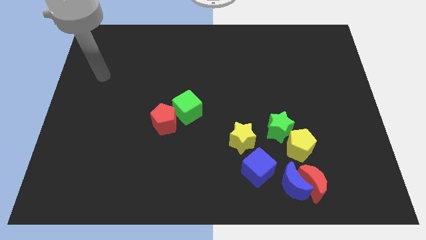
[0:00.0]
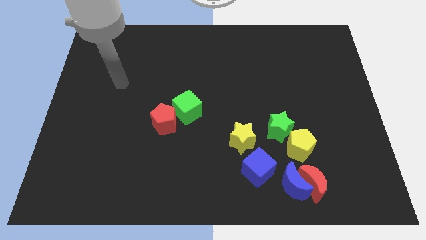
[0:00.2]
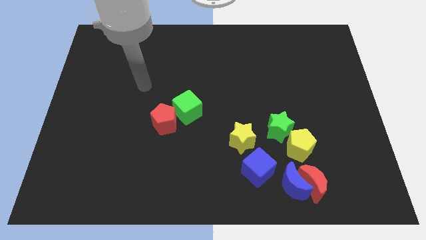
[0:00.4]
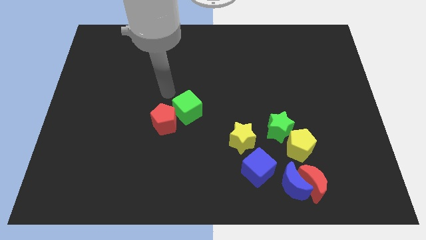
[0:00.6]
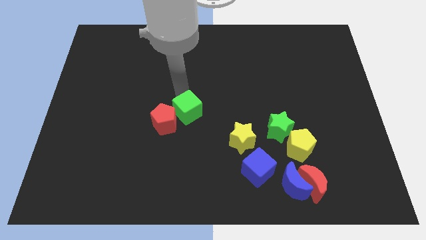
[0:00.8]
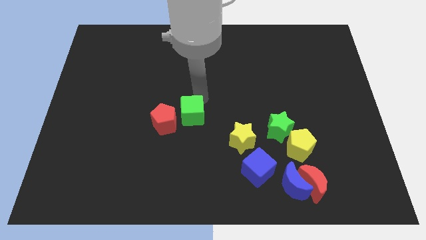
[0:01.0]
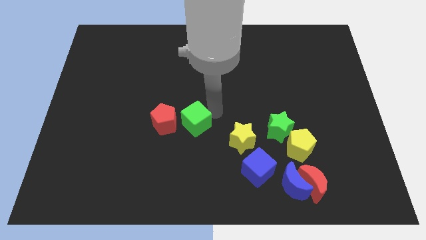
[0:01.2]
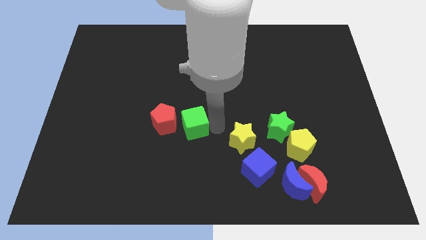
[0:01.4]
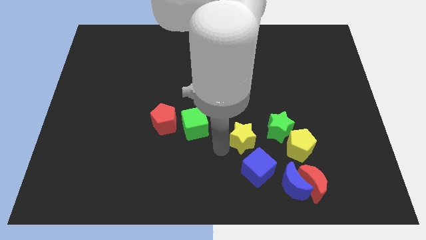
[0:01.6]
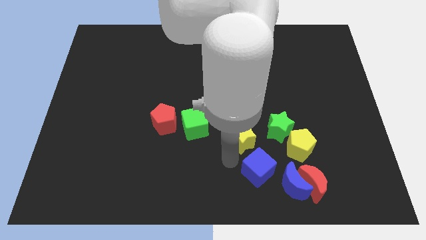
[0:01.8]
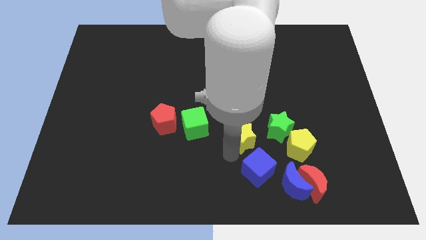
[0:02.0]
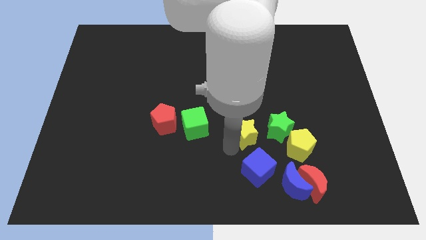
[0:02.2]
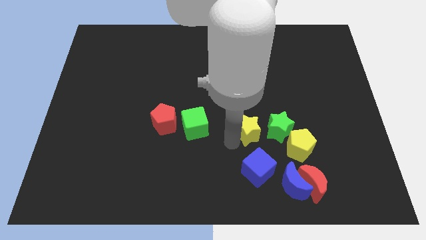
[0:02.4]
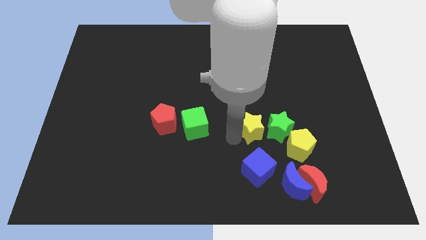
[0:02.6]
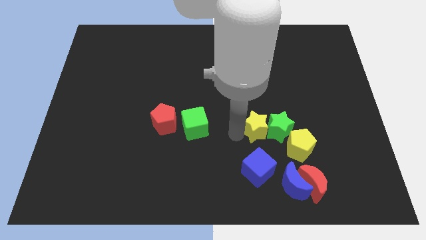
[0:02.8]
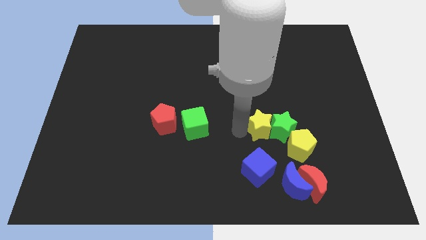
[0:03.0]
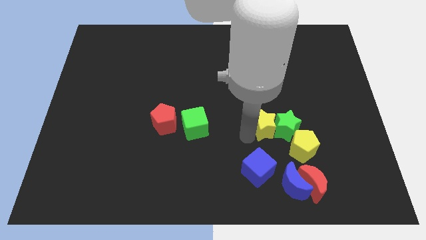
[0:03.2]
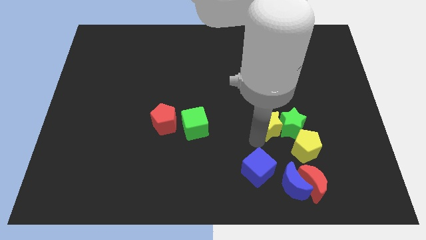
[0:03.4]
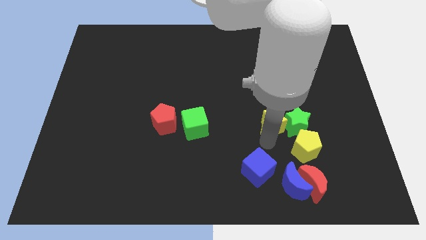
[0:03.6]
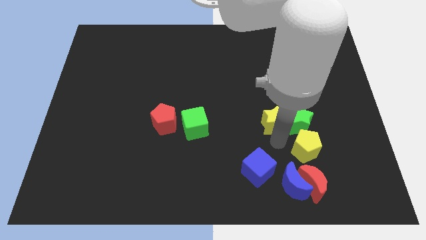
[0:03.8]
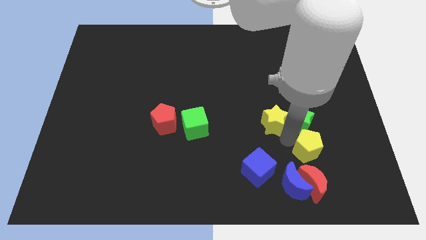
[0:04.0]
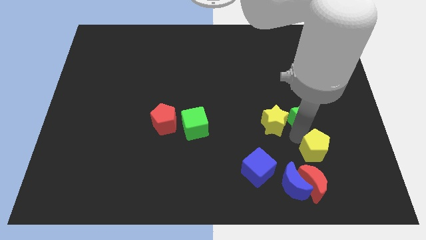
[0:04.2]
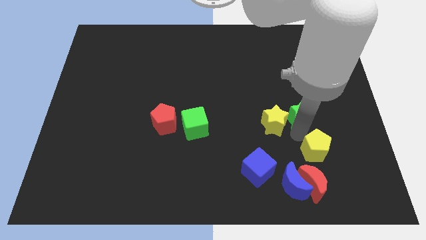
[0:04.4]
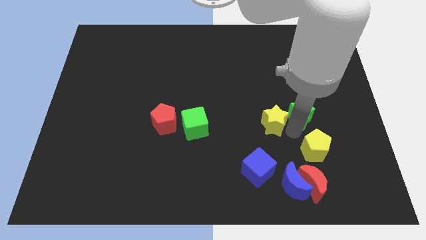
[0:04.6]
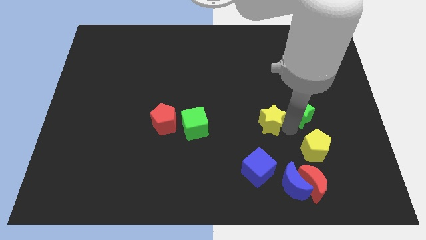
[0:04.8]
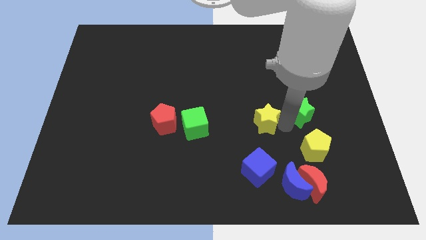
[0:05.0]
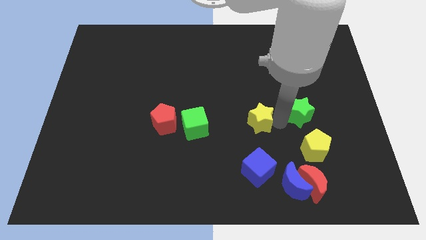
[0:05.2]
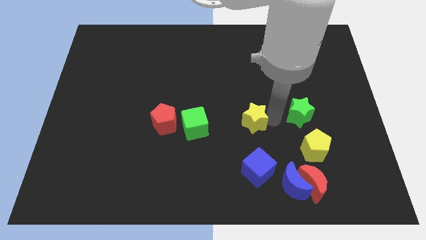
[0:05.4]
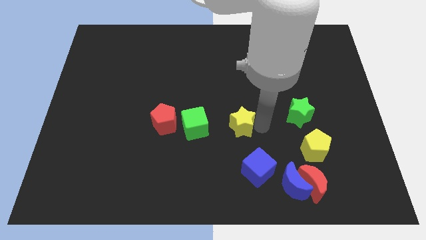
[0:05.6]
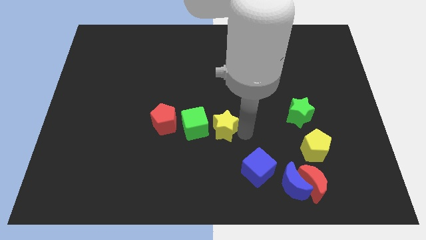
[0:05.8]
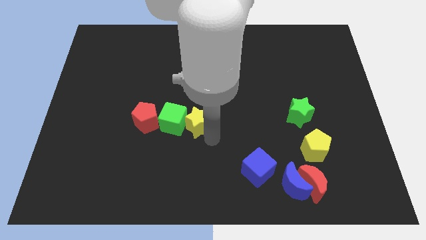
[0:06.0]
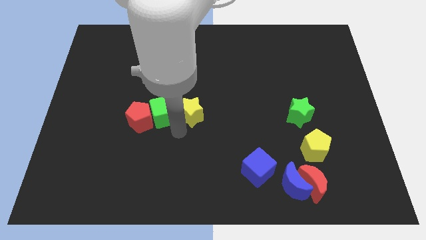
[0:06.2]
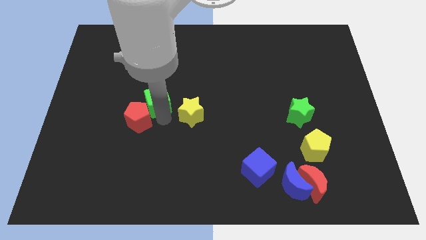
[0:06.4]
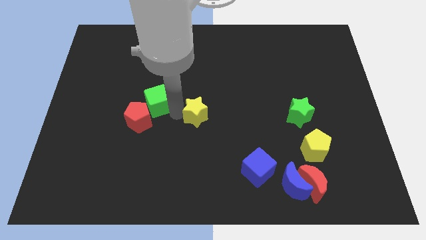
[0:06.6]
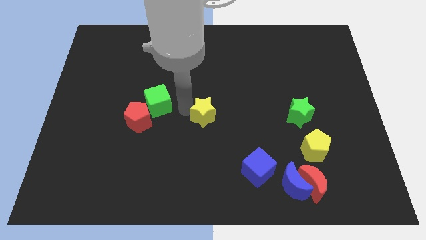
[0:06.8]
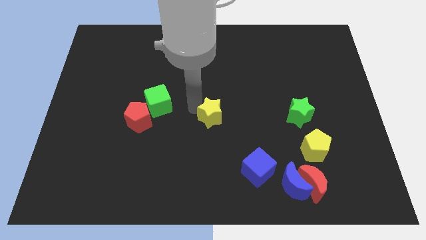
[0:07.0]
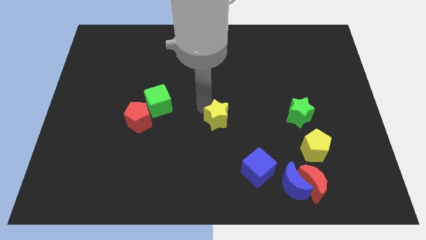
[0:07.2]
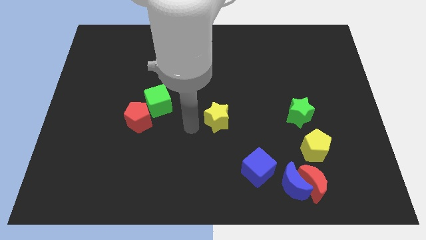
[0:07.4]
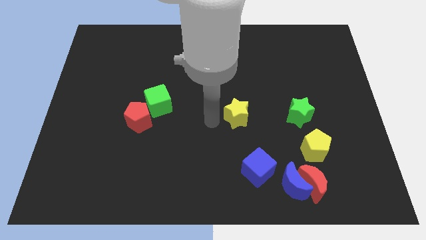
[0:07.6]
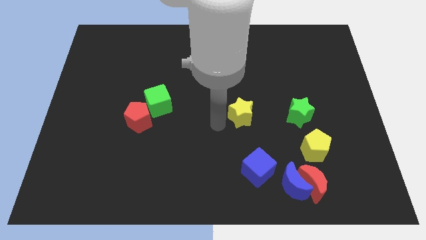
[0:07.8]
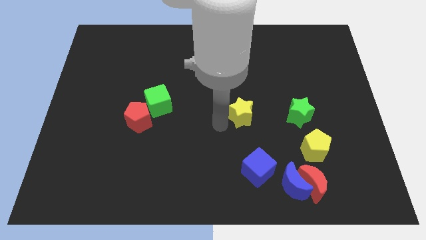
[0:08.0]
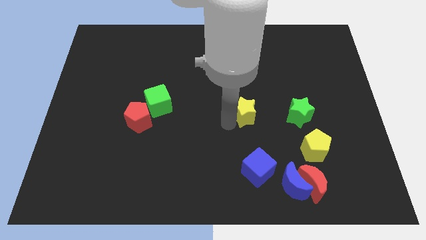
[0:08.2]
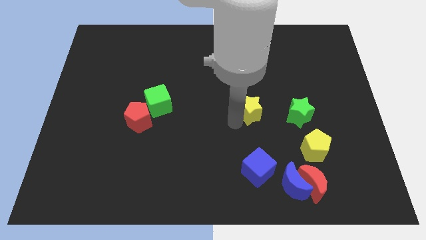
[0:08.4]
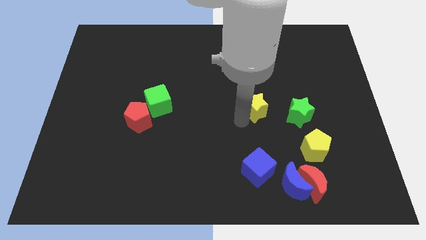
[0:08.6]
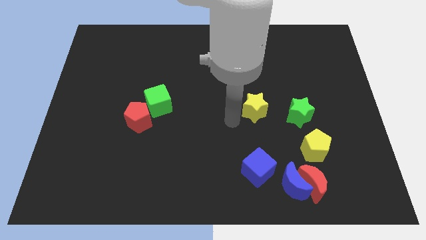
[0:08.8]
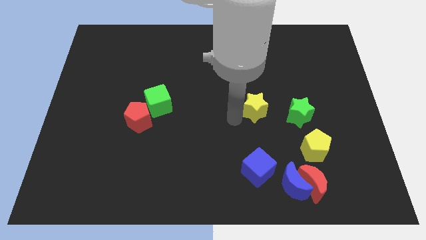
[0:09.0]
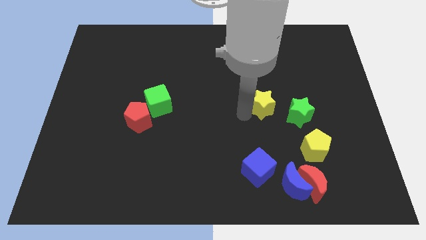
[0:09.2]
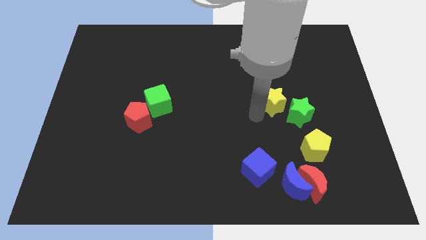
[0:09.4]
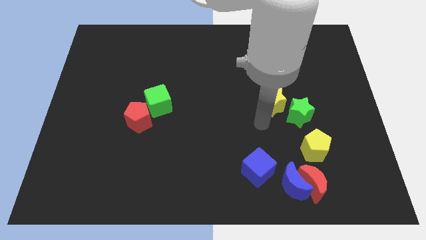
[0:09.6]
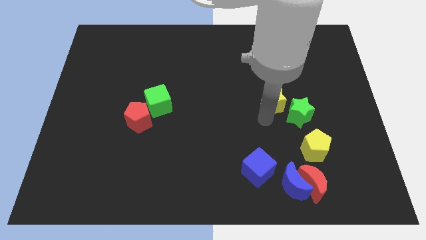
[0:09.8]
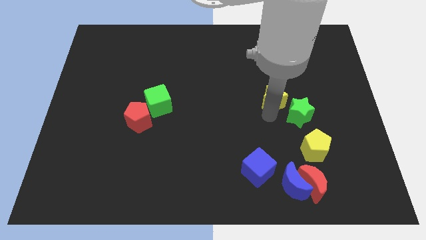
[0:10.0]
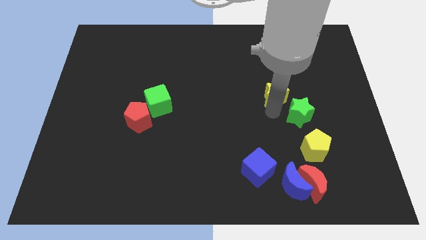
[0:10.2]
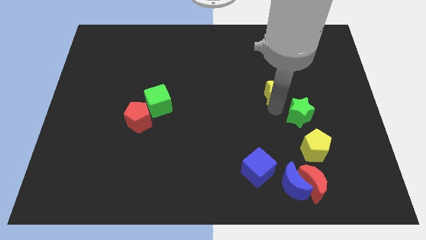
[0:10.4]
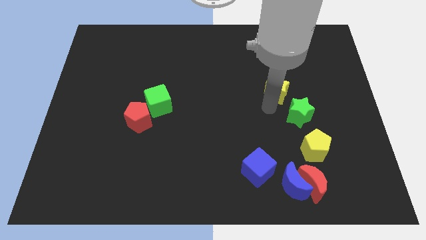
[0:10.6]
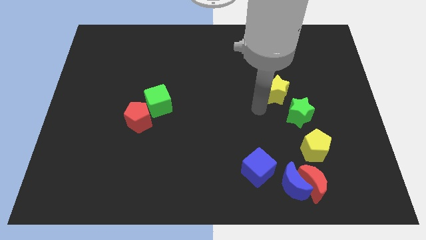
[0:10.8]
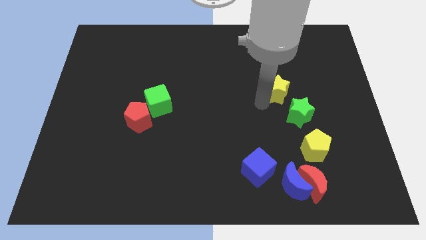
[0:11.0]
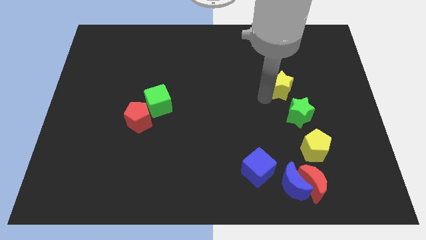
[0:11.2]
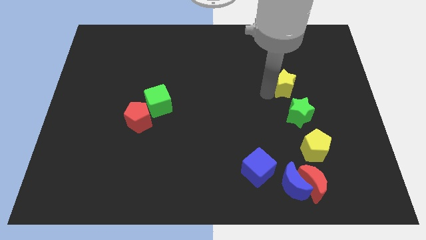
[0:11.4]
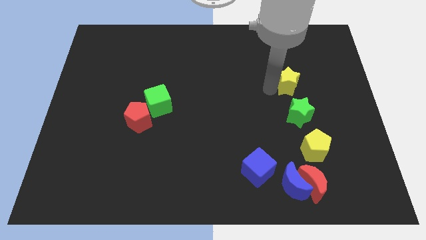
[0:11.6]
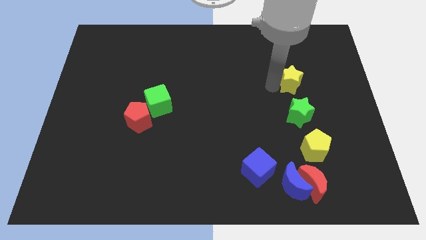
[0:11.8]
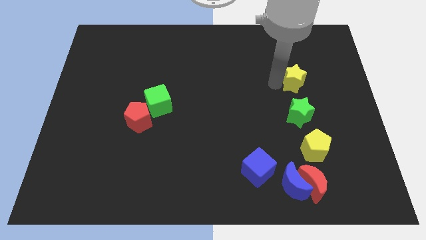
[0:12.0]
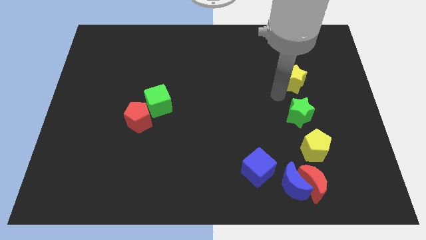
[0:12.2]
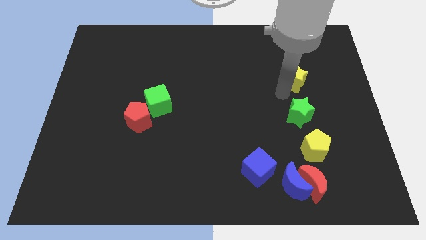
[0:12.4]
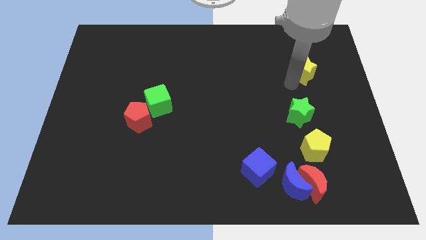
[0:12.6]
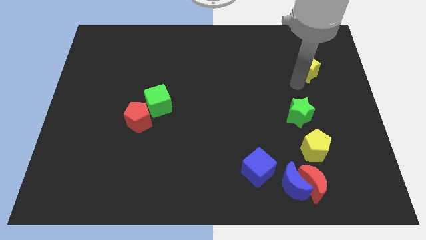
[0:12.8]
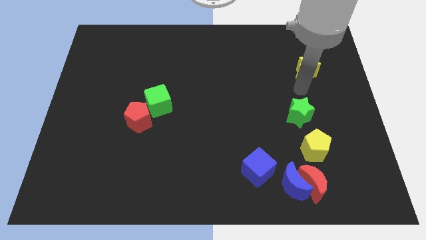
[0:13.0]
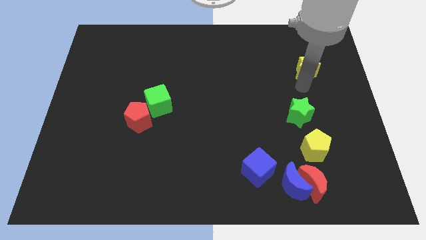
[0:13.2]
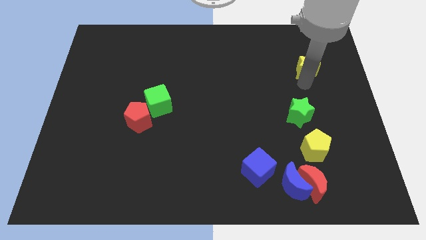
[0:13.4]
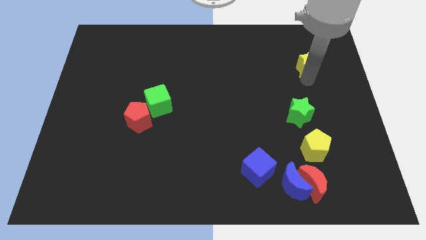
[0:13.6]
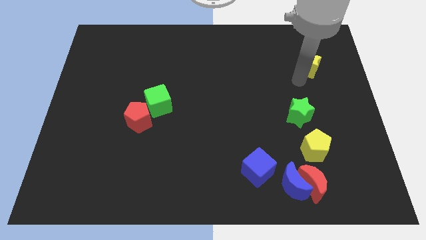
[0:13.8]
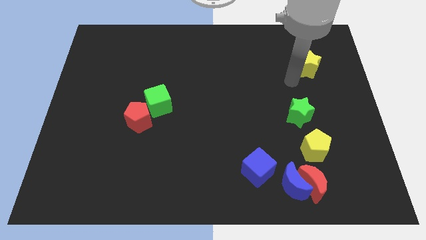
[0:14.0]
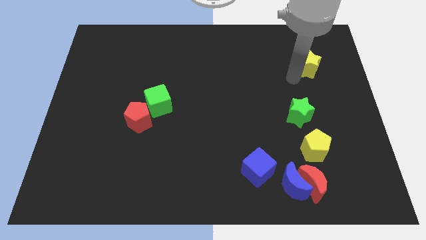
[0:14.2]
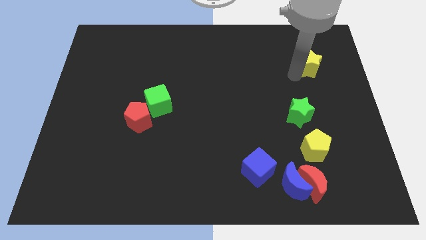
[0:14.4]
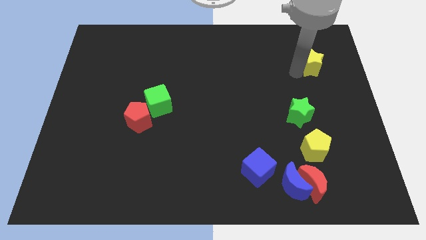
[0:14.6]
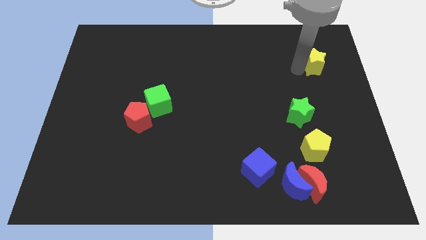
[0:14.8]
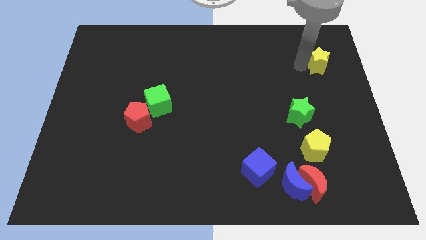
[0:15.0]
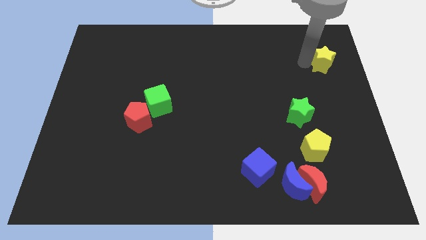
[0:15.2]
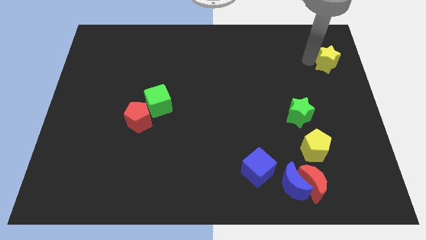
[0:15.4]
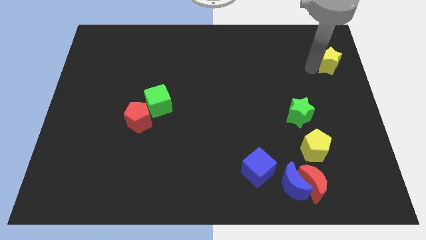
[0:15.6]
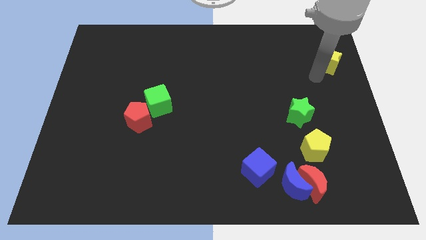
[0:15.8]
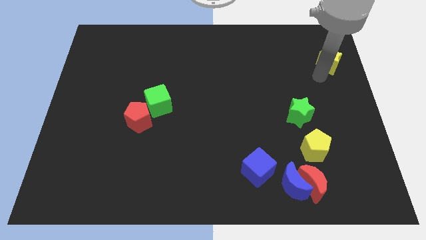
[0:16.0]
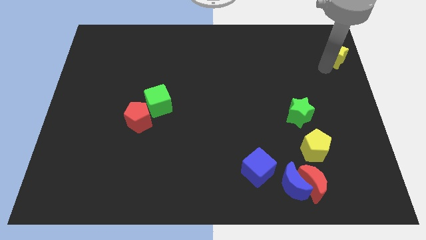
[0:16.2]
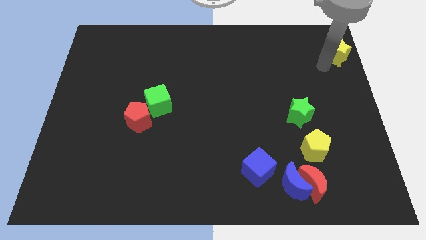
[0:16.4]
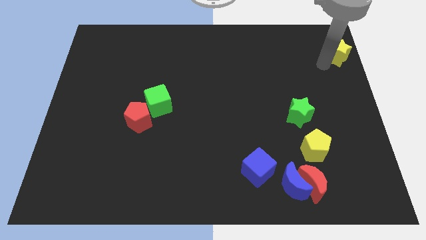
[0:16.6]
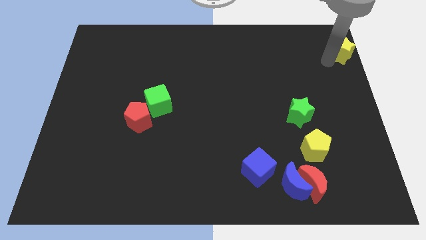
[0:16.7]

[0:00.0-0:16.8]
move the yellow star to the top right
